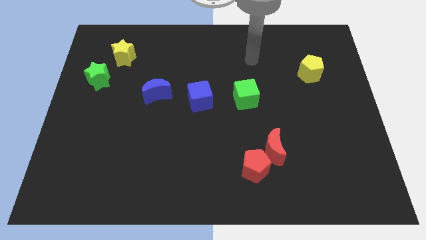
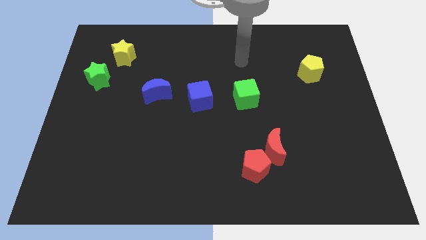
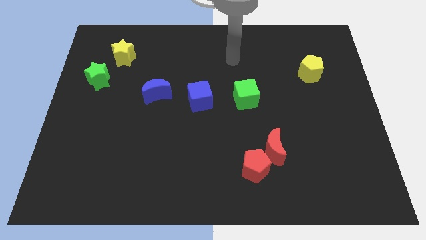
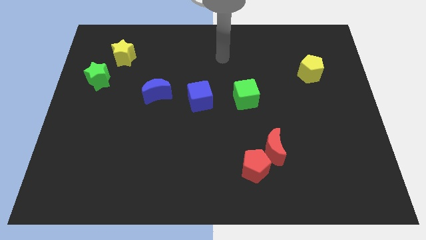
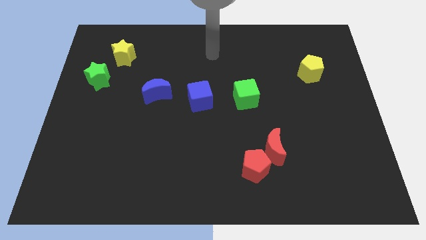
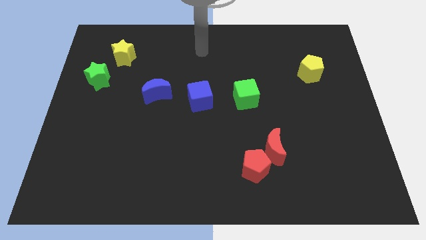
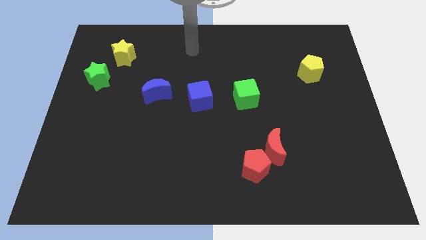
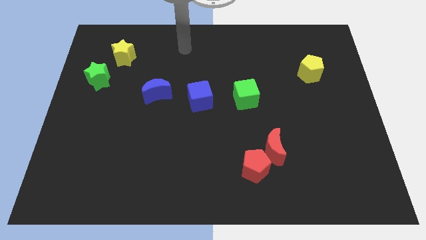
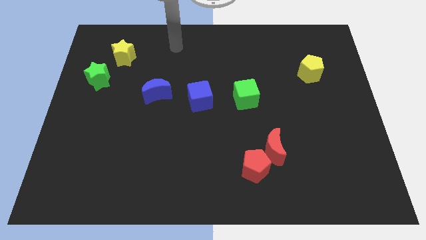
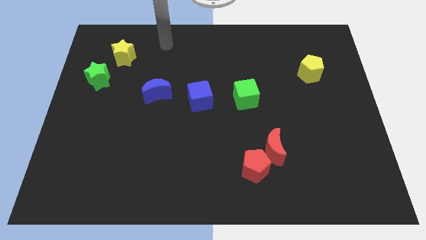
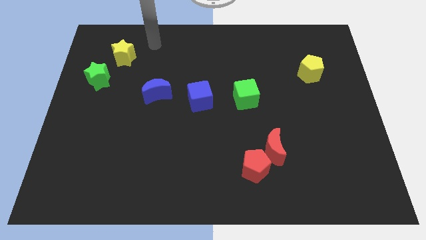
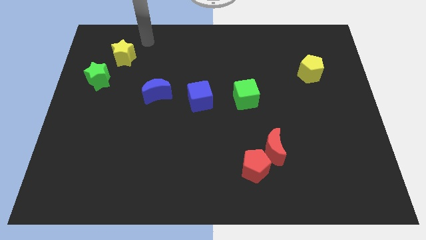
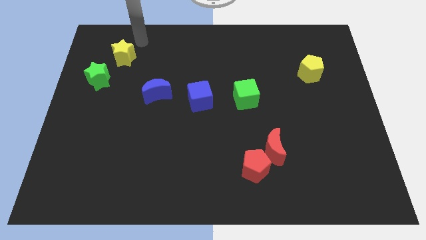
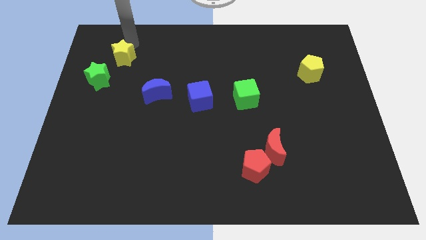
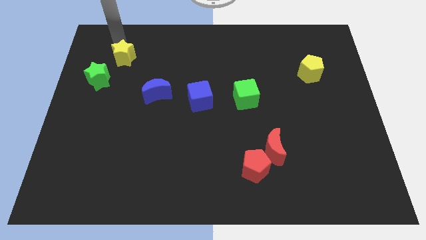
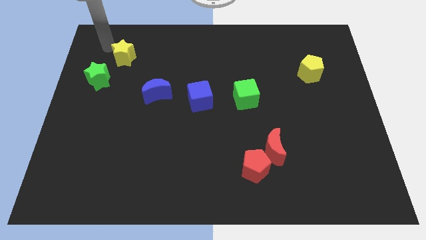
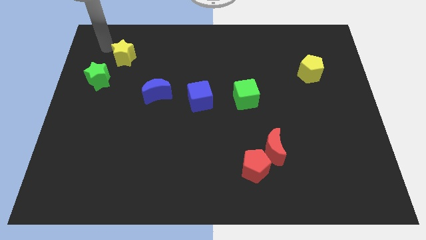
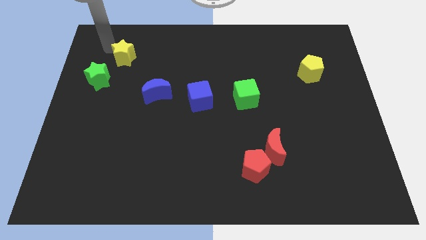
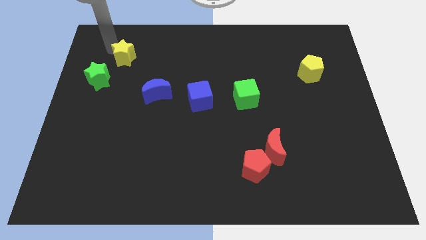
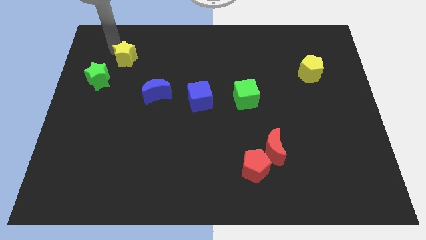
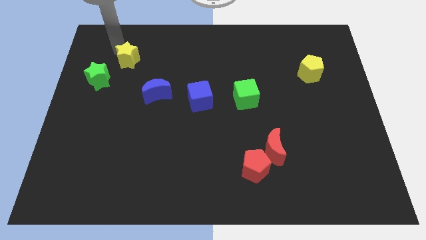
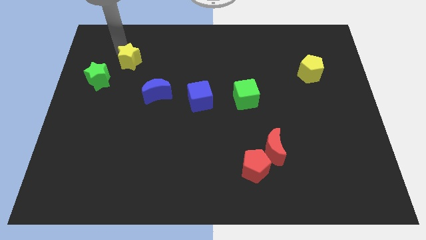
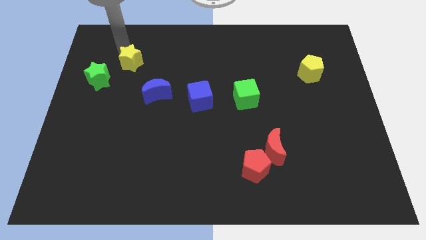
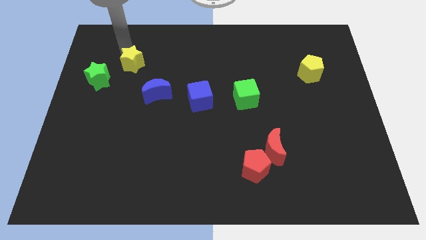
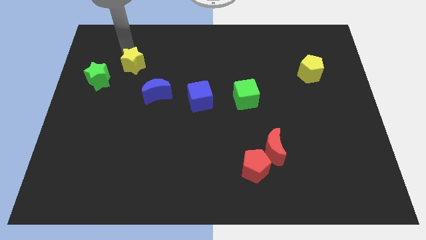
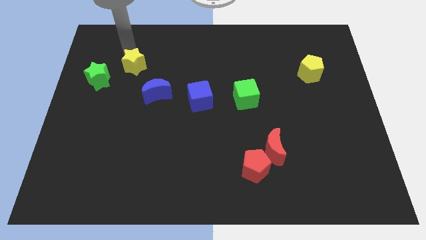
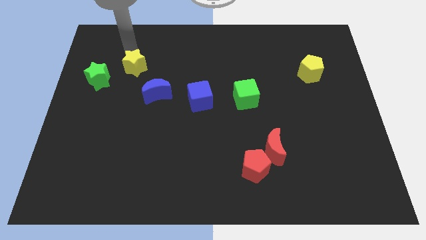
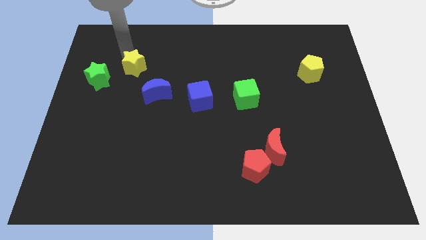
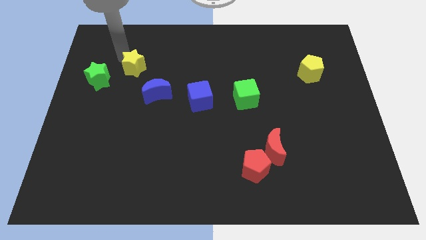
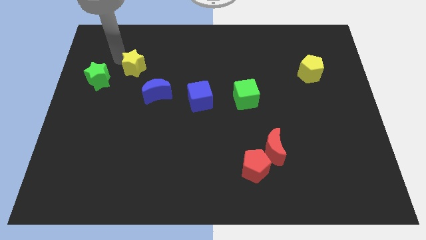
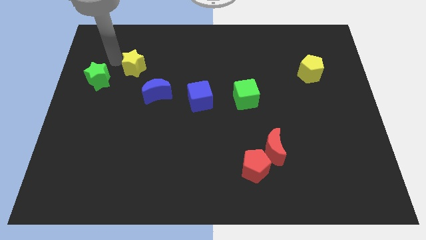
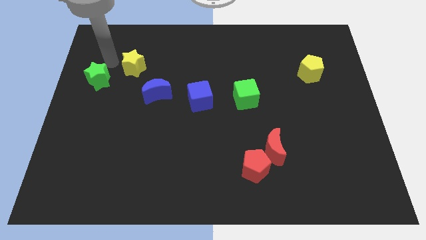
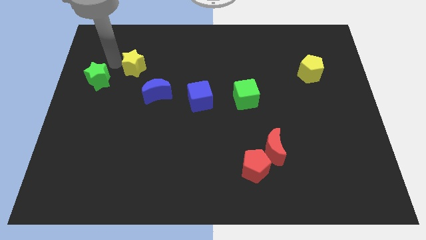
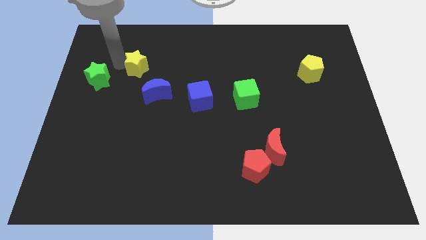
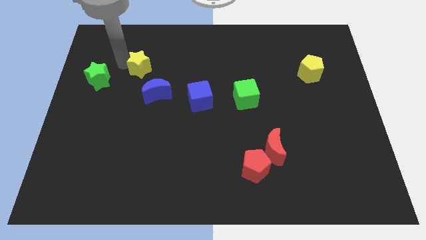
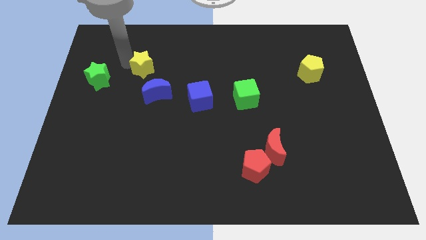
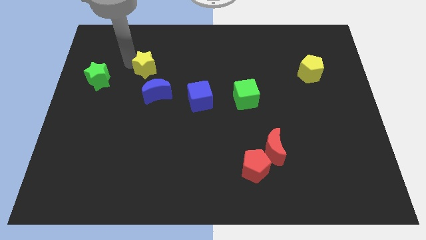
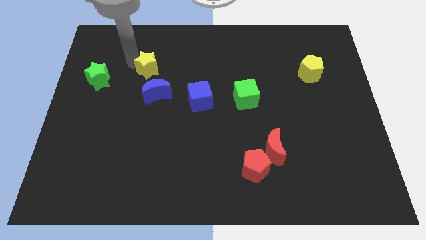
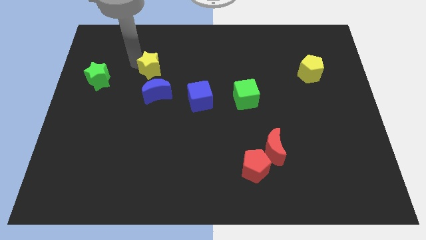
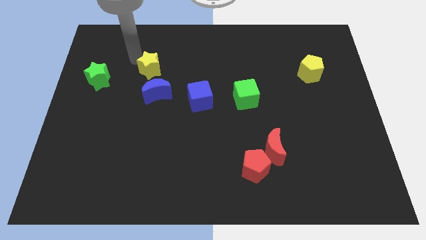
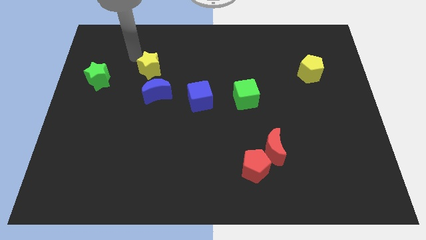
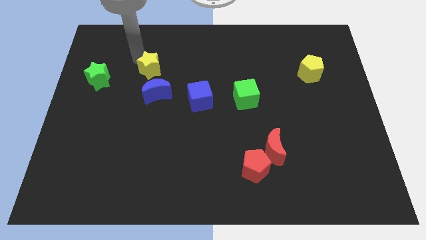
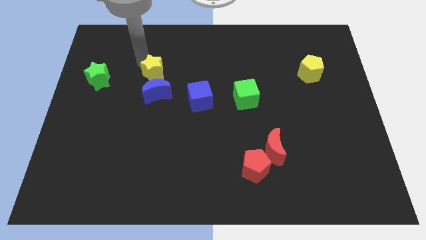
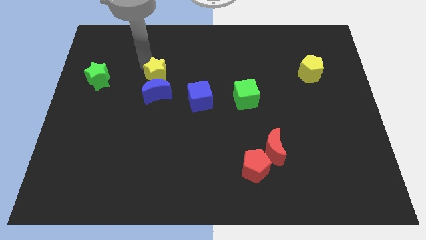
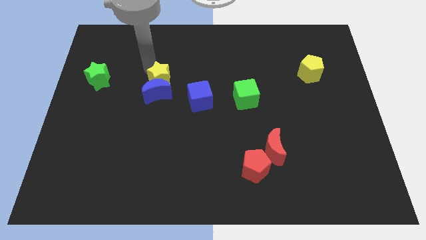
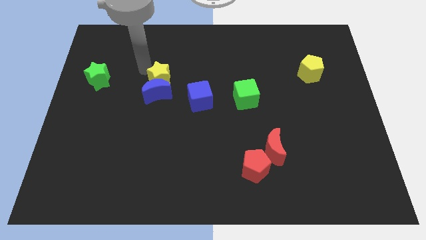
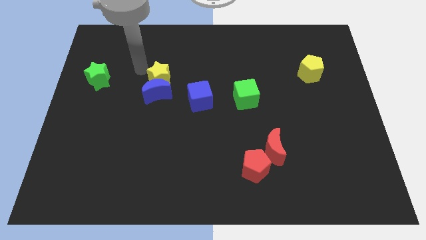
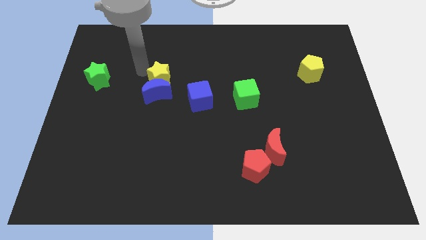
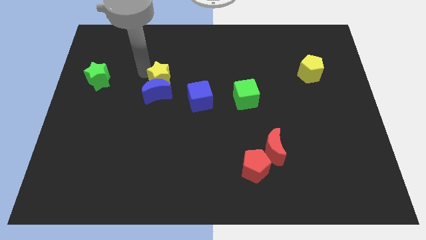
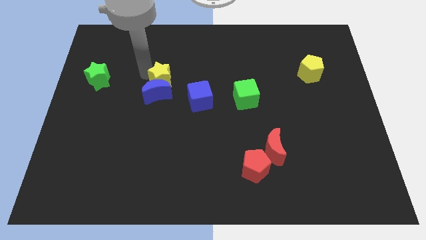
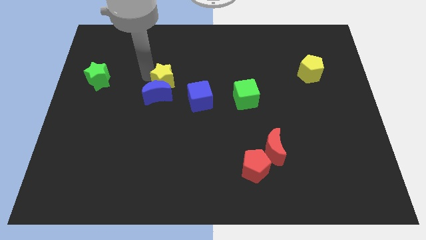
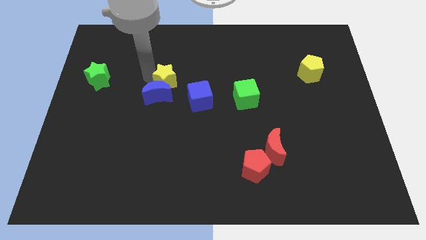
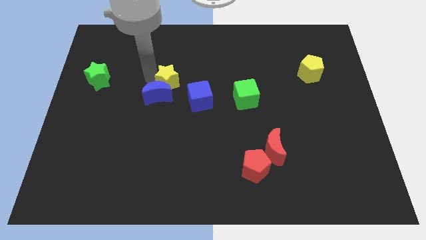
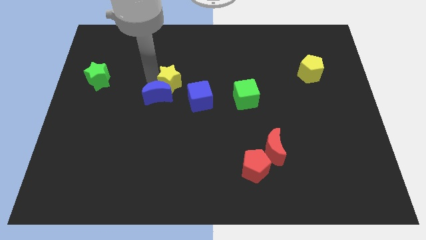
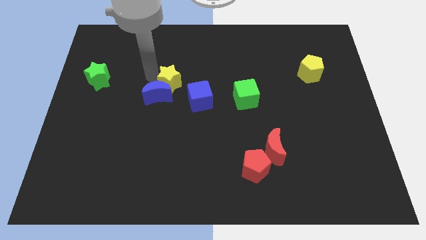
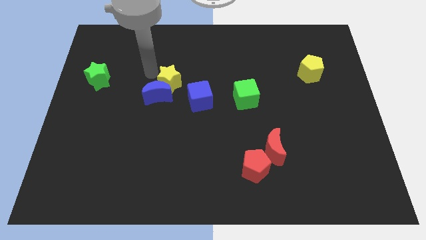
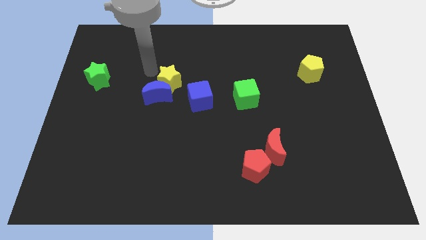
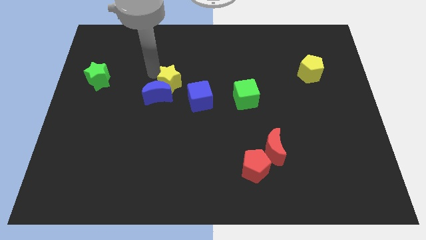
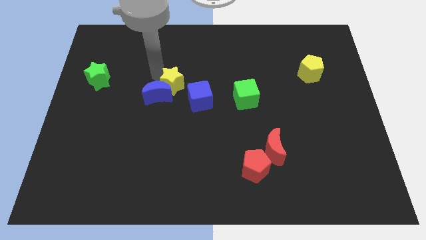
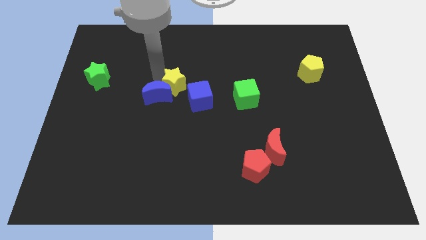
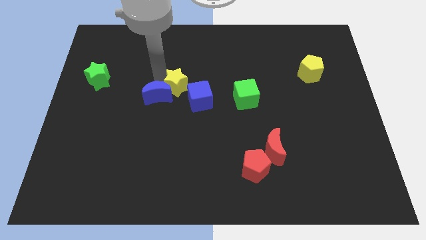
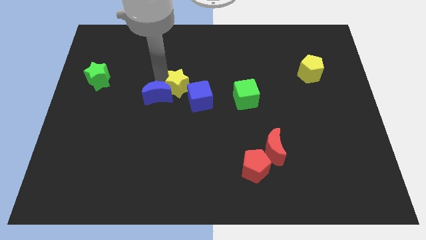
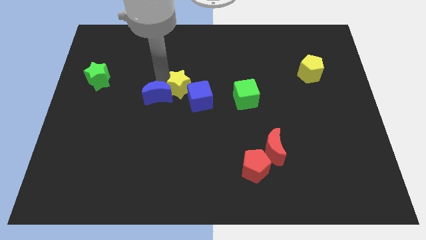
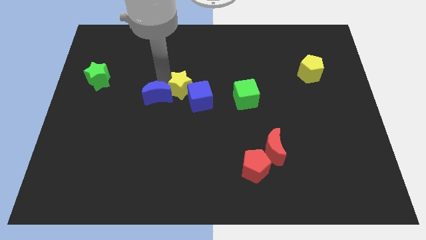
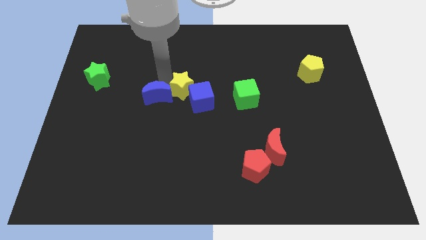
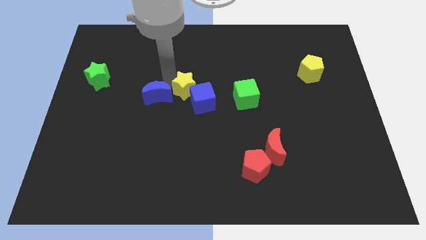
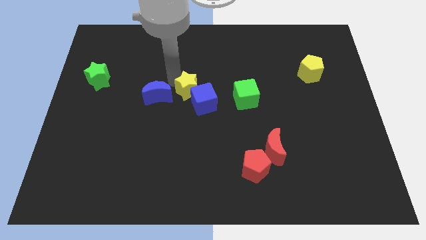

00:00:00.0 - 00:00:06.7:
move the yellow star downwards and to the right diagonally

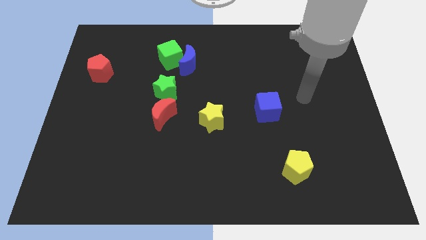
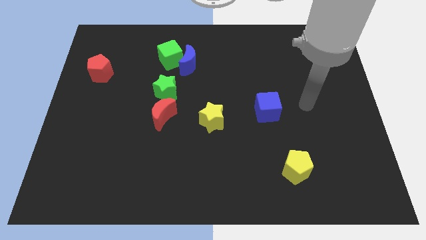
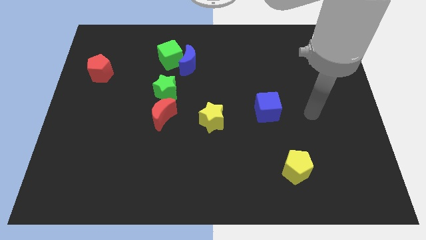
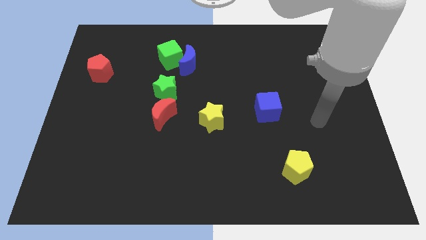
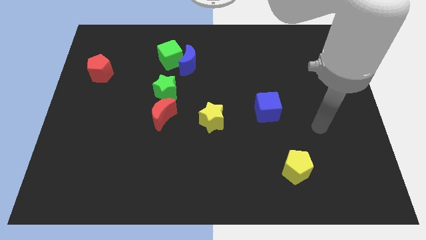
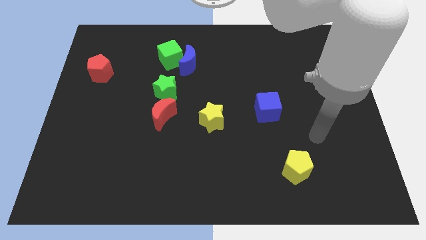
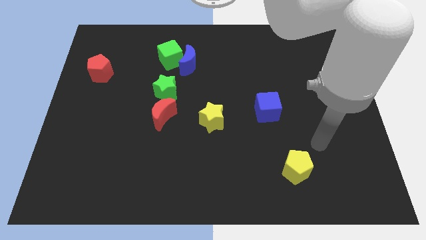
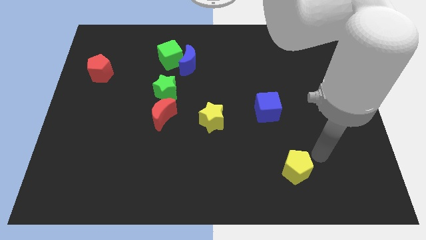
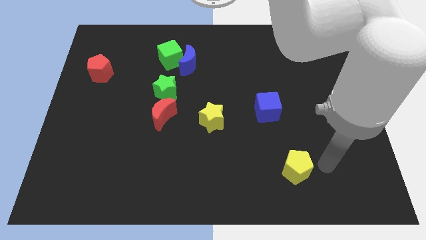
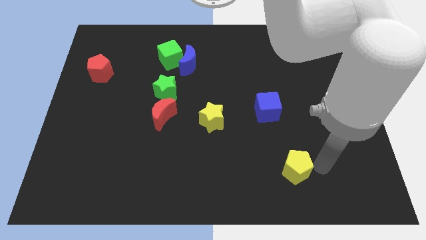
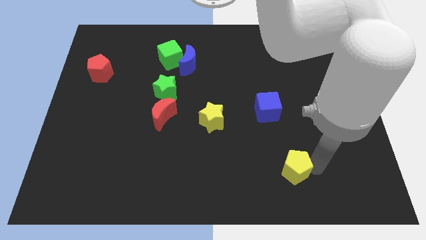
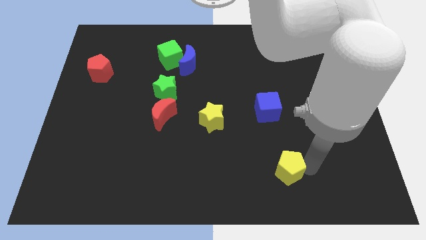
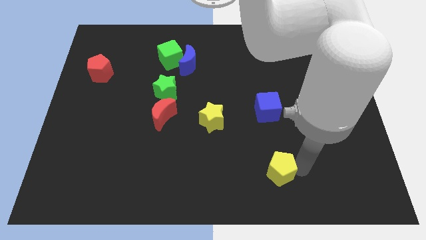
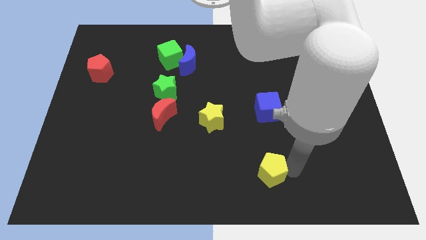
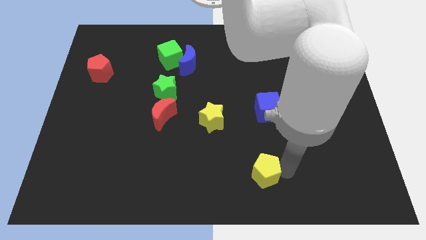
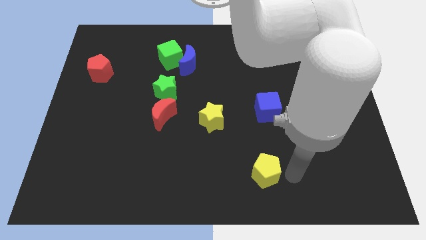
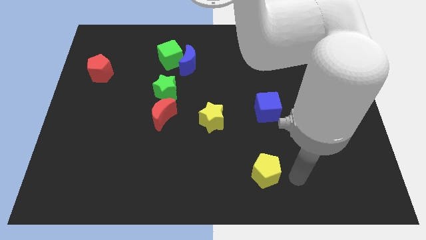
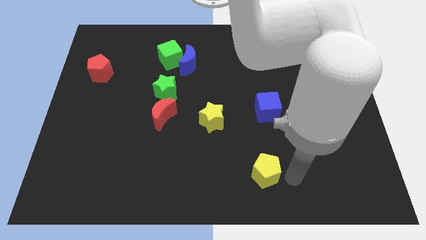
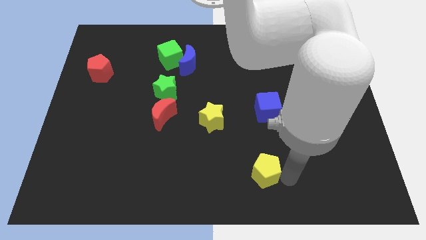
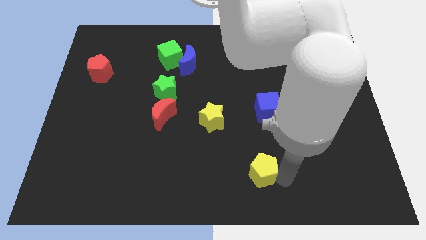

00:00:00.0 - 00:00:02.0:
slightly push the yellow pentagon left
